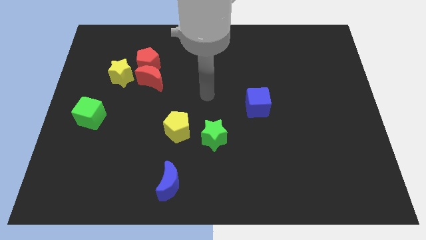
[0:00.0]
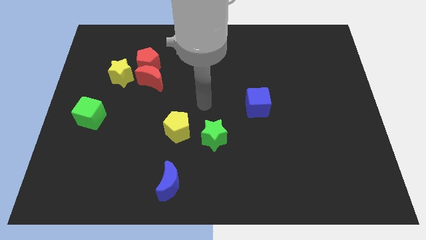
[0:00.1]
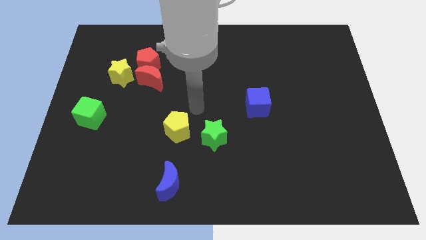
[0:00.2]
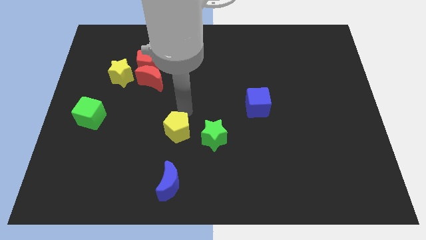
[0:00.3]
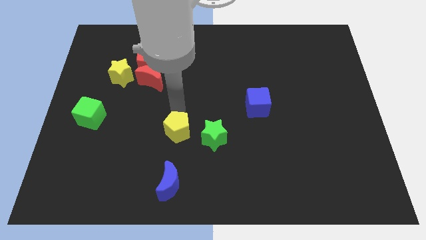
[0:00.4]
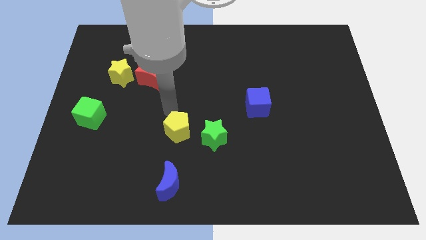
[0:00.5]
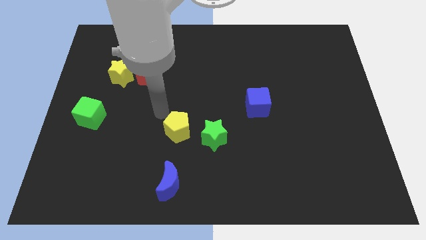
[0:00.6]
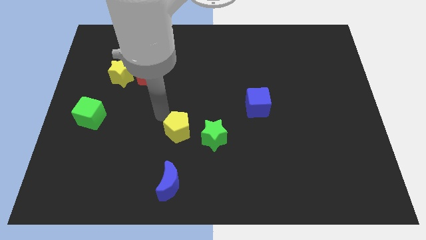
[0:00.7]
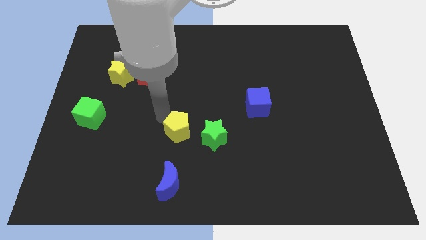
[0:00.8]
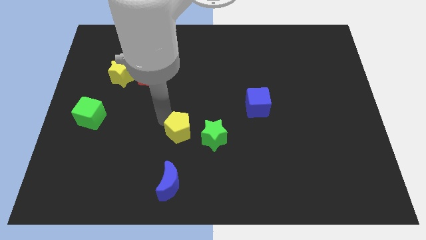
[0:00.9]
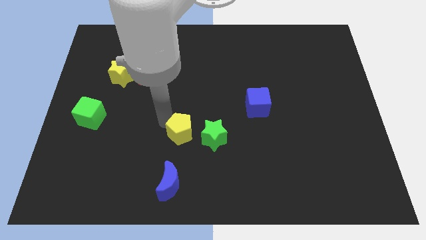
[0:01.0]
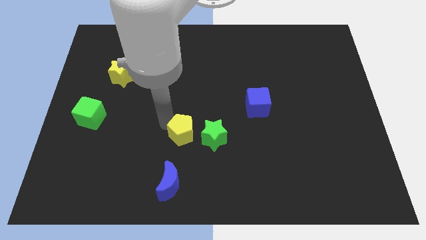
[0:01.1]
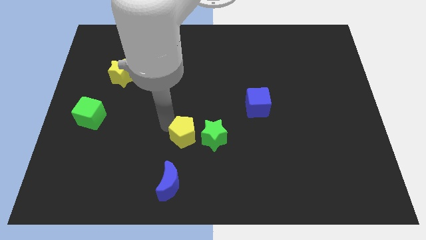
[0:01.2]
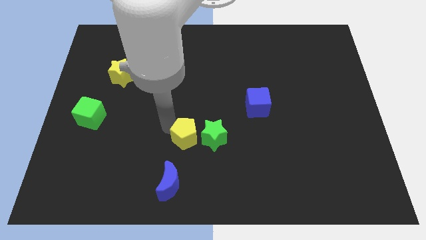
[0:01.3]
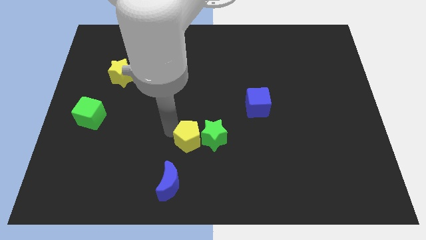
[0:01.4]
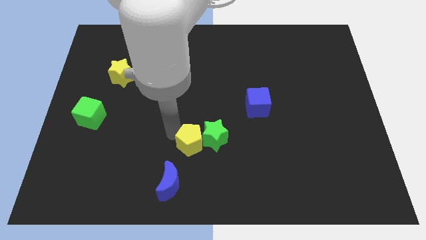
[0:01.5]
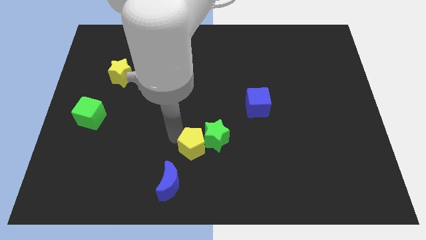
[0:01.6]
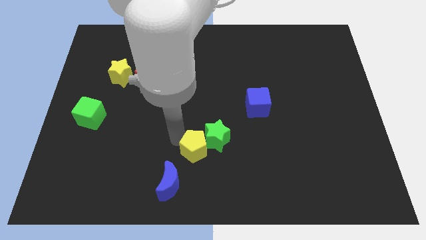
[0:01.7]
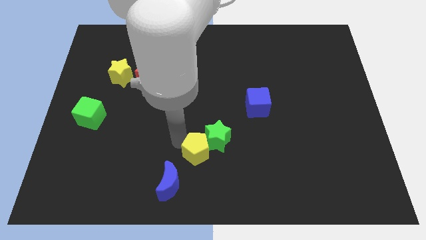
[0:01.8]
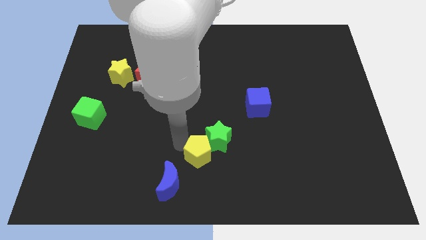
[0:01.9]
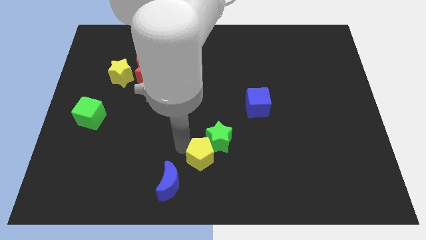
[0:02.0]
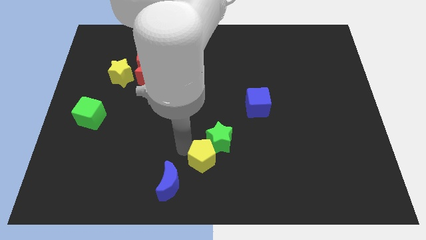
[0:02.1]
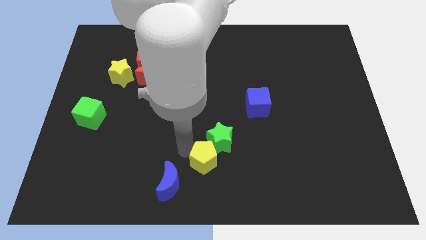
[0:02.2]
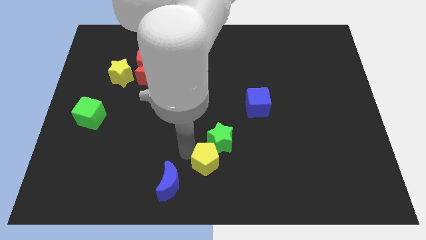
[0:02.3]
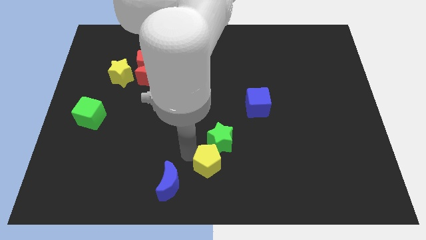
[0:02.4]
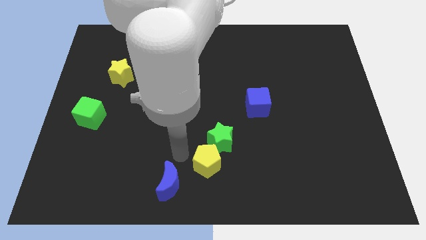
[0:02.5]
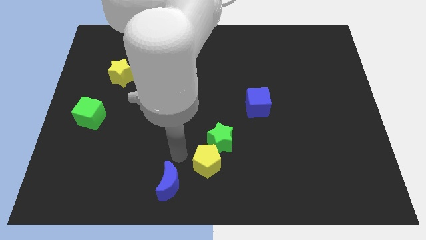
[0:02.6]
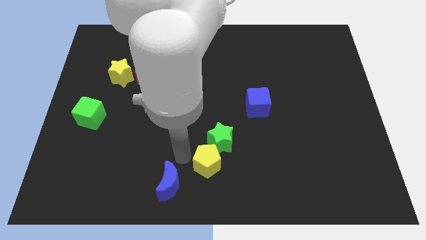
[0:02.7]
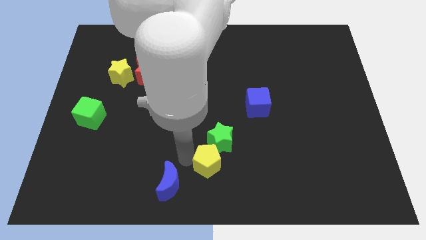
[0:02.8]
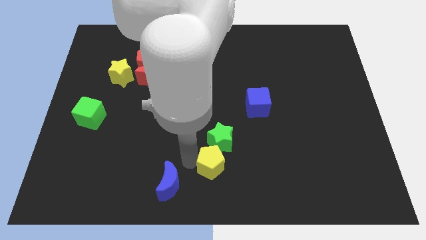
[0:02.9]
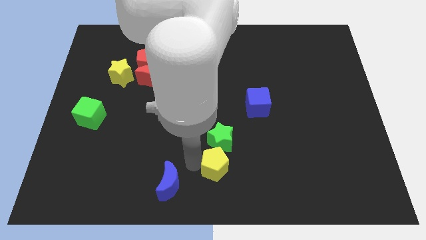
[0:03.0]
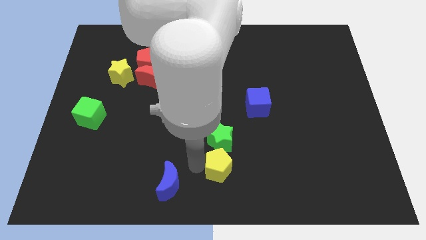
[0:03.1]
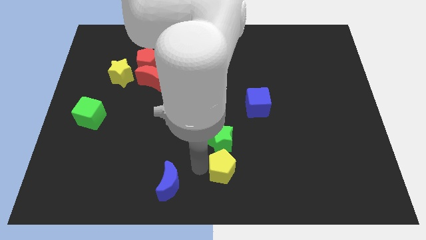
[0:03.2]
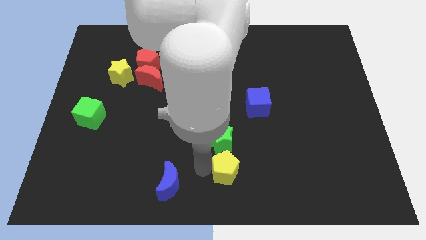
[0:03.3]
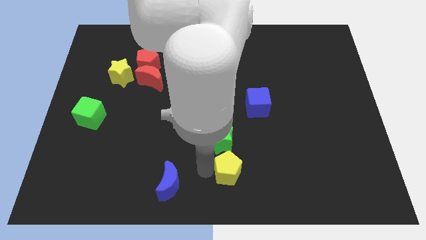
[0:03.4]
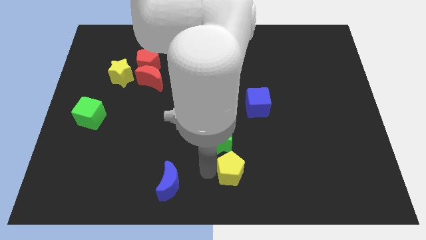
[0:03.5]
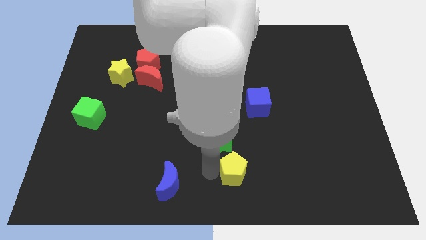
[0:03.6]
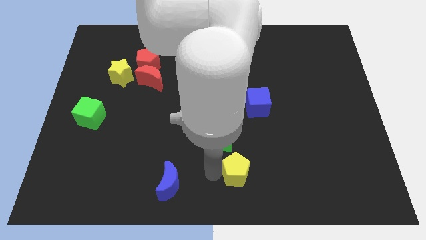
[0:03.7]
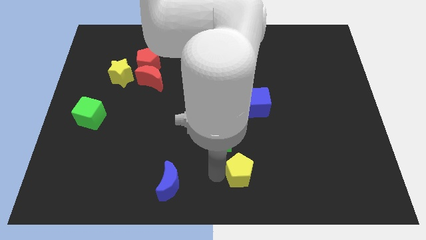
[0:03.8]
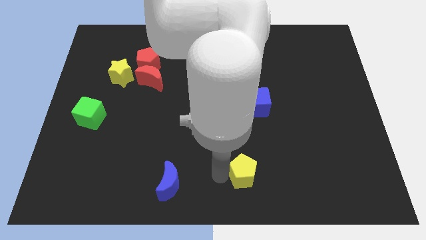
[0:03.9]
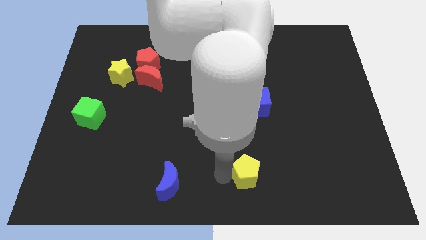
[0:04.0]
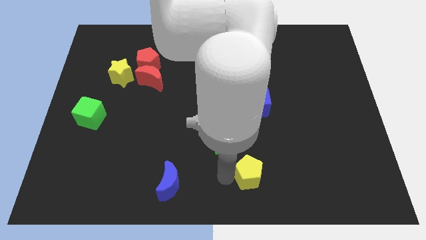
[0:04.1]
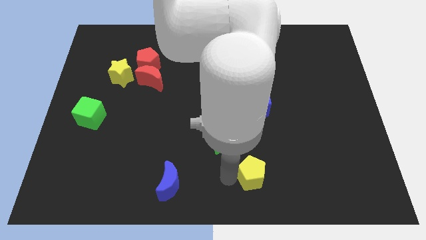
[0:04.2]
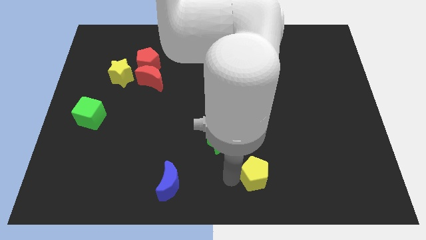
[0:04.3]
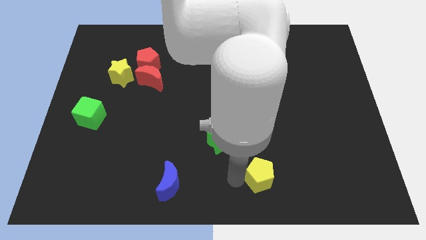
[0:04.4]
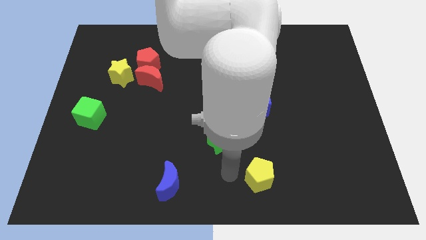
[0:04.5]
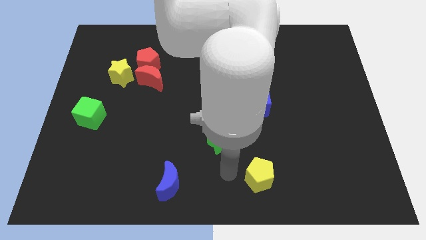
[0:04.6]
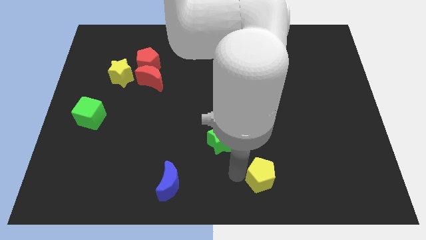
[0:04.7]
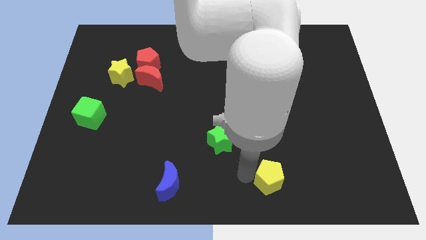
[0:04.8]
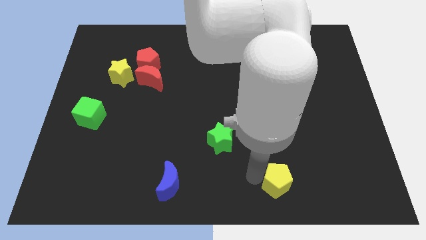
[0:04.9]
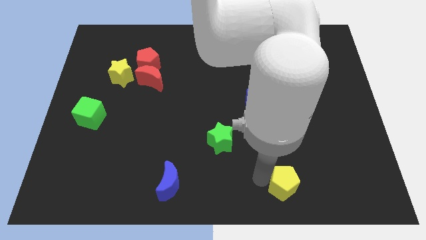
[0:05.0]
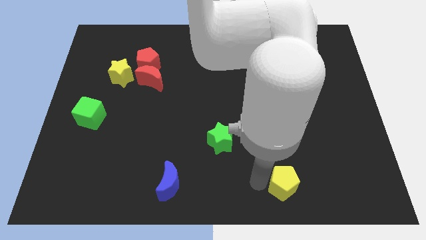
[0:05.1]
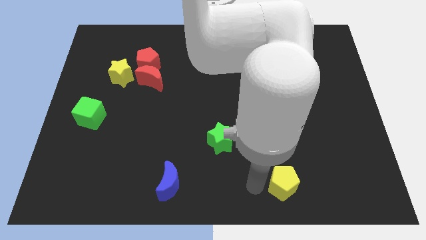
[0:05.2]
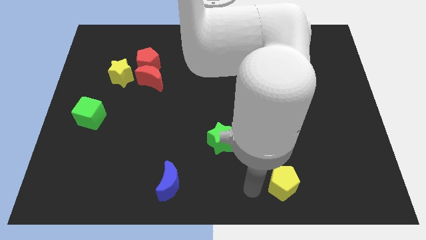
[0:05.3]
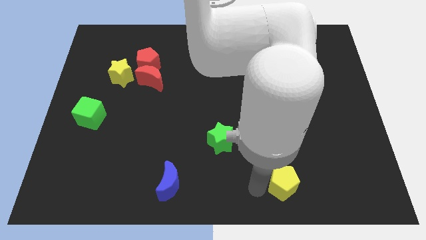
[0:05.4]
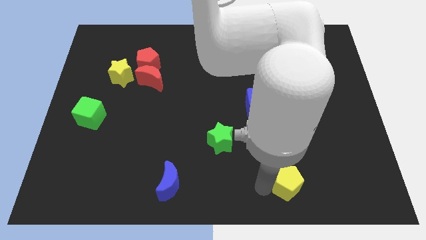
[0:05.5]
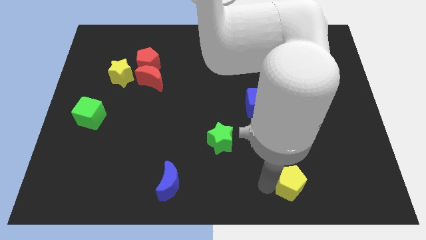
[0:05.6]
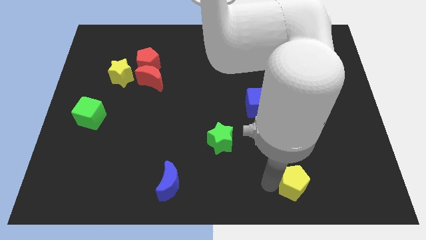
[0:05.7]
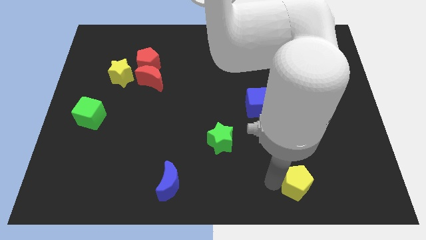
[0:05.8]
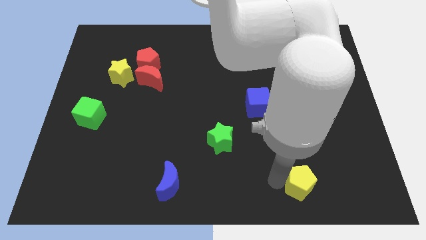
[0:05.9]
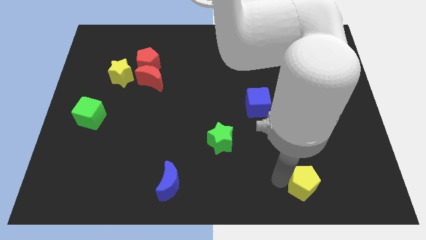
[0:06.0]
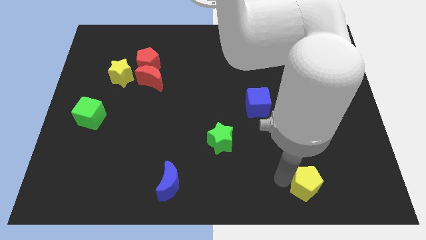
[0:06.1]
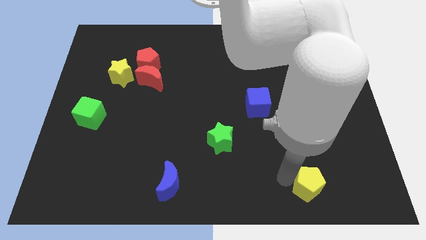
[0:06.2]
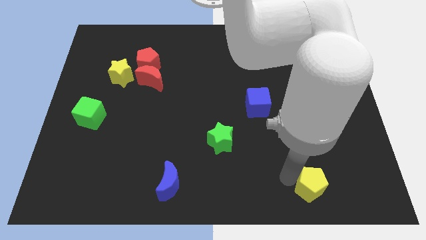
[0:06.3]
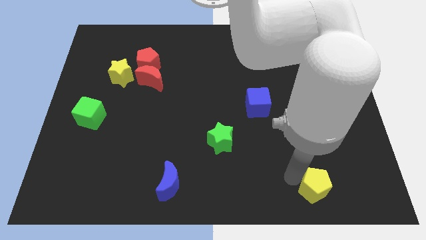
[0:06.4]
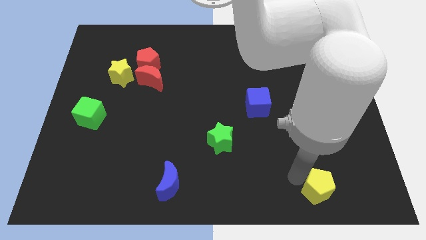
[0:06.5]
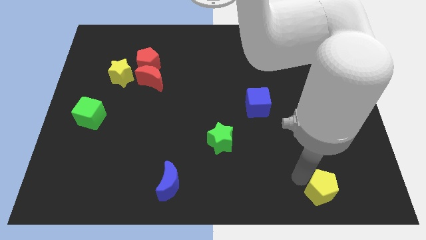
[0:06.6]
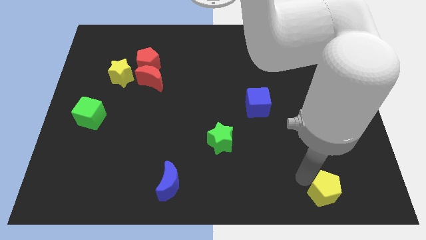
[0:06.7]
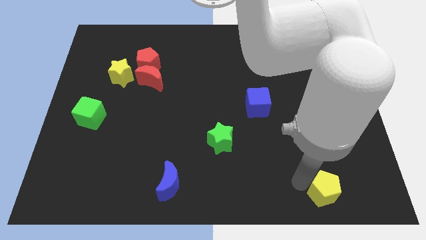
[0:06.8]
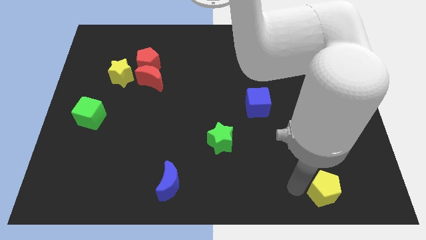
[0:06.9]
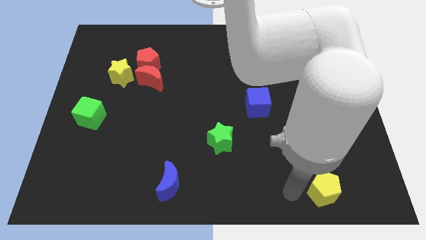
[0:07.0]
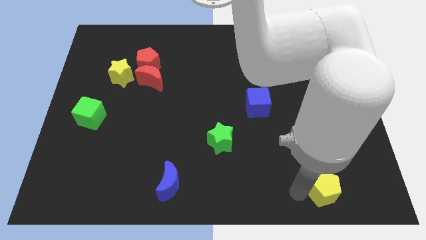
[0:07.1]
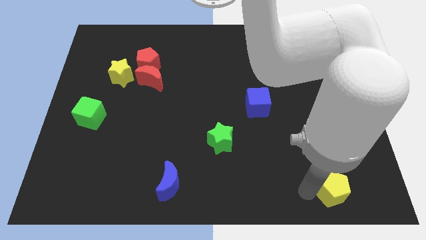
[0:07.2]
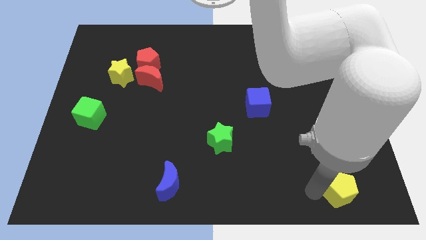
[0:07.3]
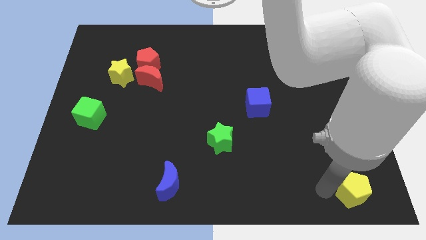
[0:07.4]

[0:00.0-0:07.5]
slide the yellow pentagon to the lower right corner
